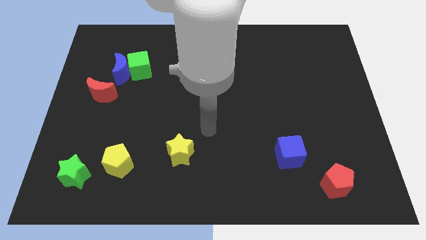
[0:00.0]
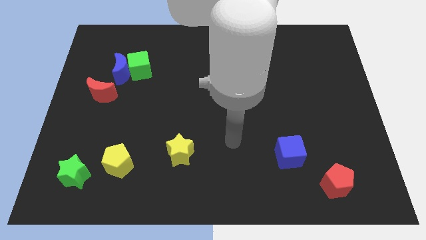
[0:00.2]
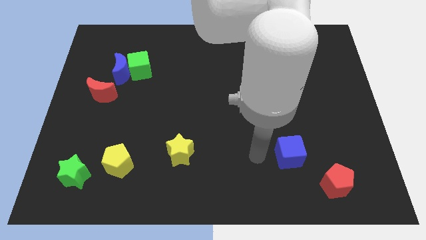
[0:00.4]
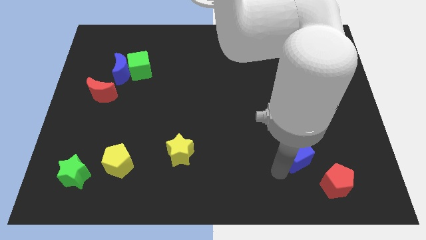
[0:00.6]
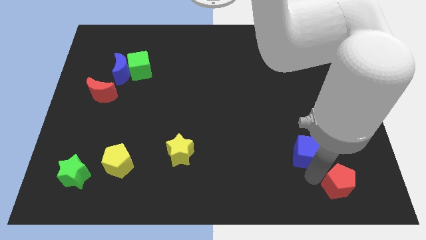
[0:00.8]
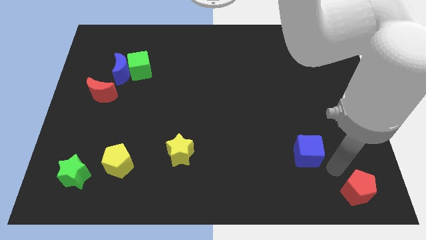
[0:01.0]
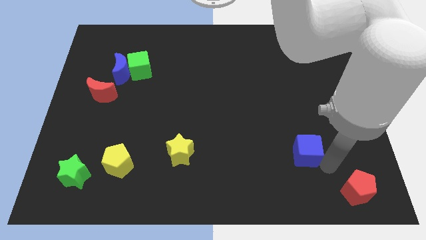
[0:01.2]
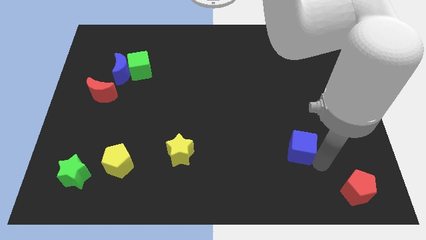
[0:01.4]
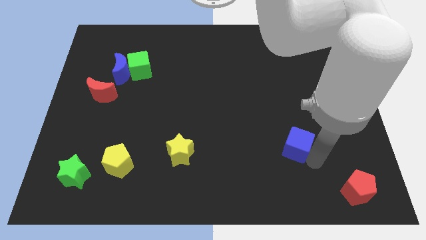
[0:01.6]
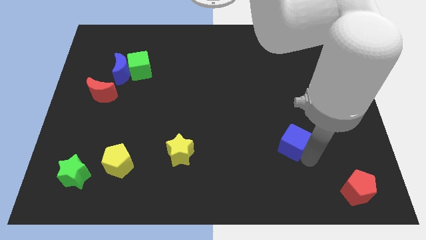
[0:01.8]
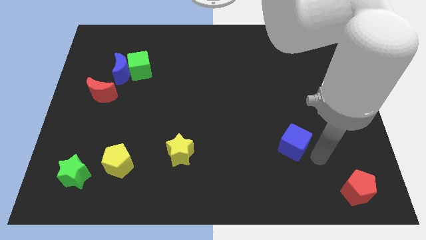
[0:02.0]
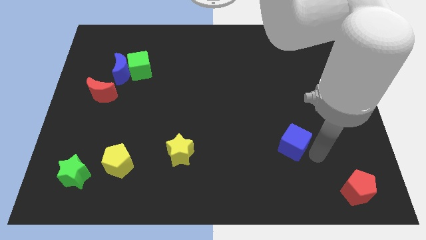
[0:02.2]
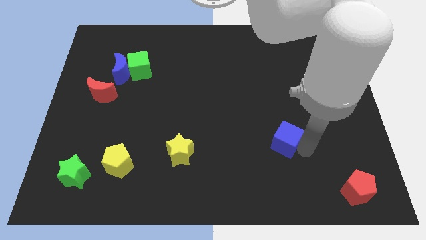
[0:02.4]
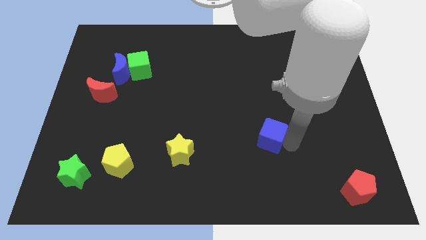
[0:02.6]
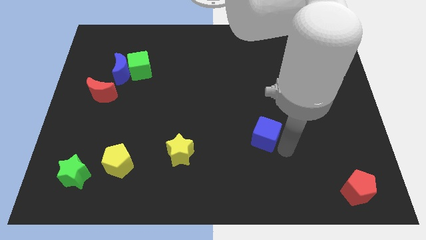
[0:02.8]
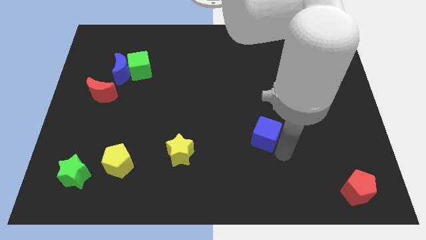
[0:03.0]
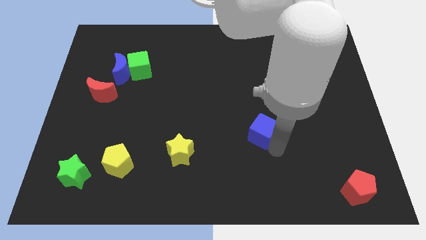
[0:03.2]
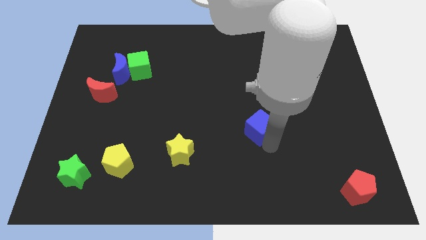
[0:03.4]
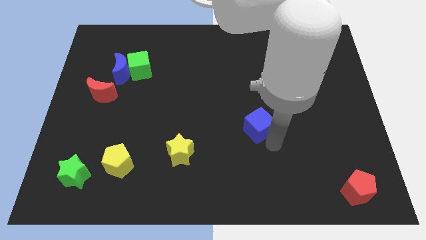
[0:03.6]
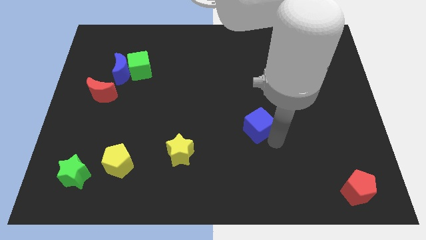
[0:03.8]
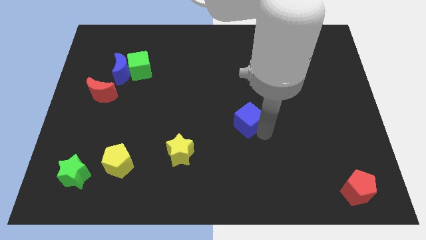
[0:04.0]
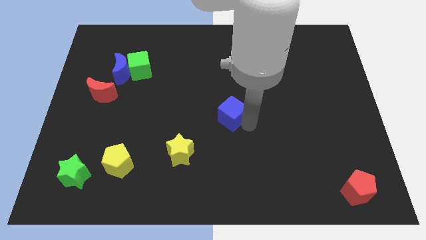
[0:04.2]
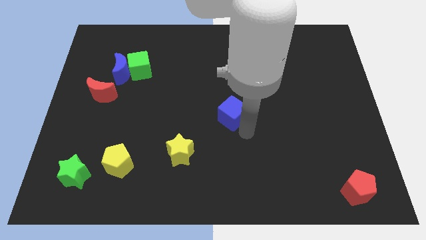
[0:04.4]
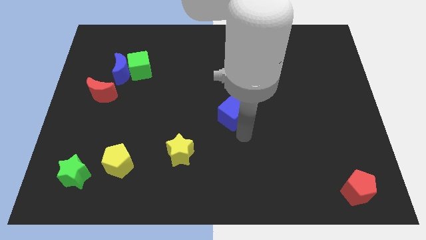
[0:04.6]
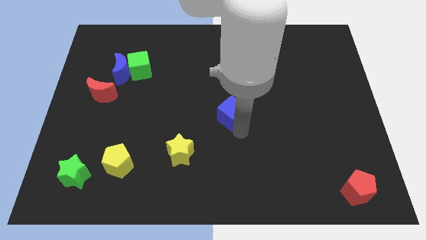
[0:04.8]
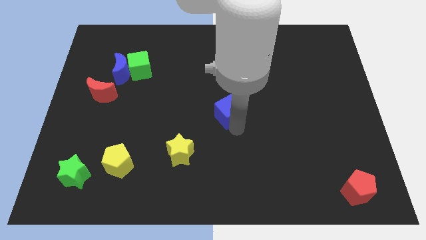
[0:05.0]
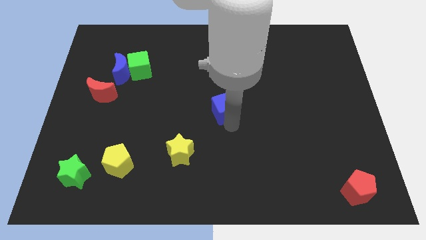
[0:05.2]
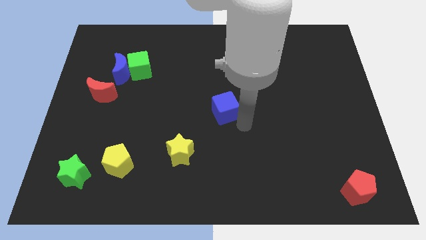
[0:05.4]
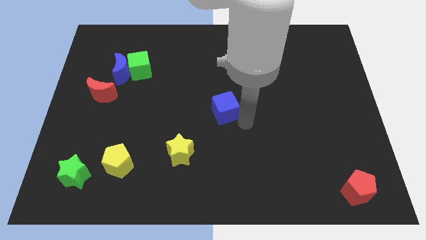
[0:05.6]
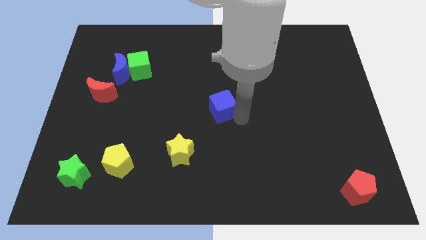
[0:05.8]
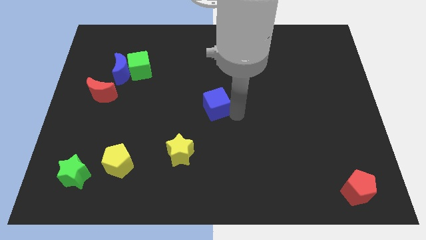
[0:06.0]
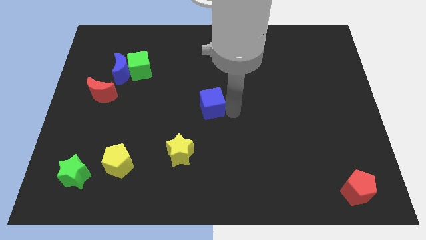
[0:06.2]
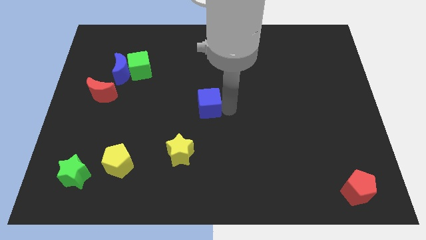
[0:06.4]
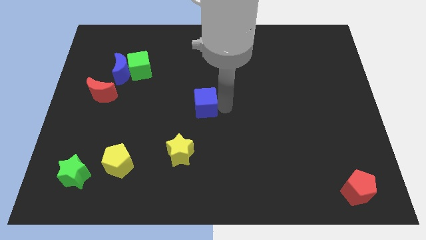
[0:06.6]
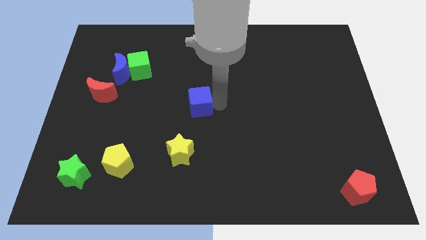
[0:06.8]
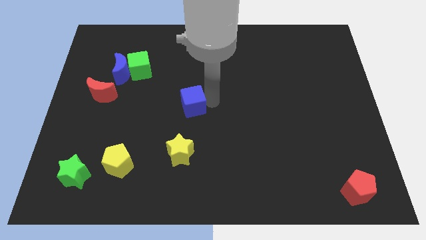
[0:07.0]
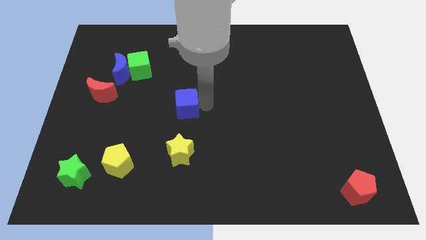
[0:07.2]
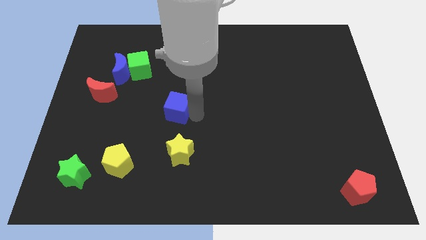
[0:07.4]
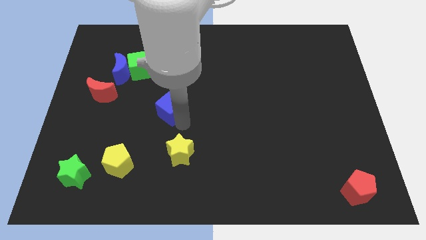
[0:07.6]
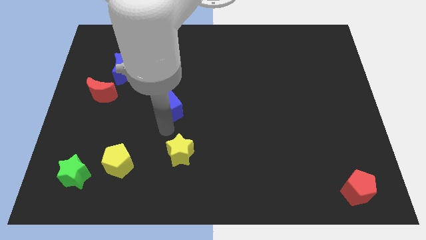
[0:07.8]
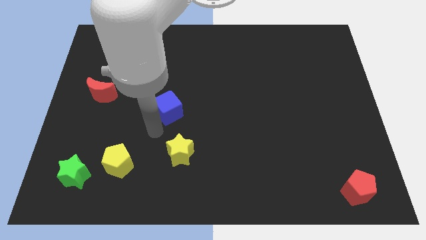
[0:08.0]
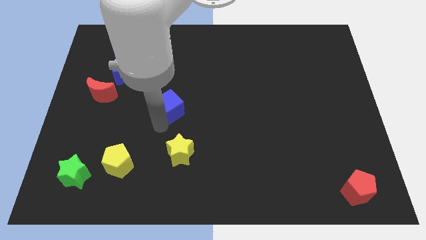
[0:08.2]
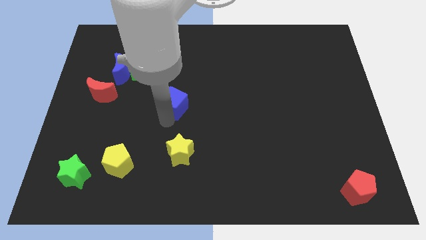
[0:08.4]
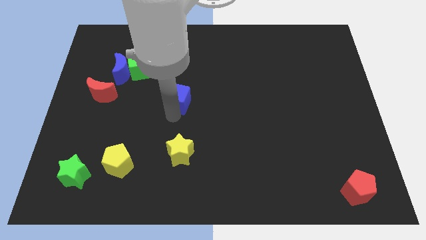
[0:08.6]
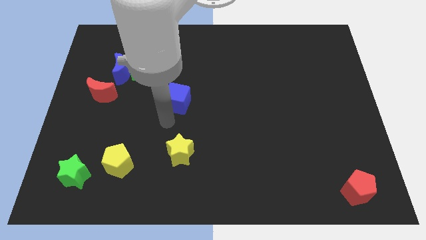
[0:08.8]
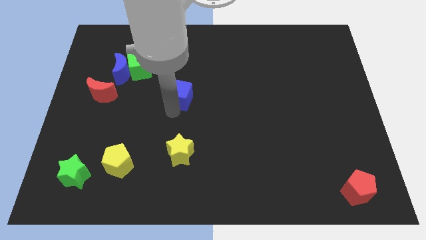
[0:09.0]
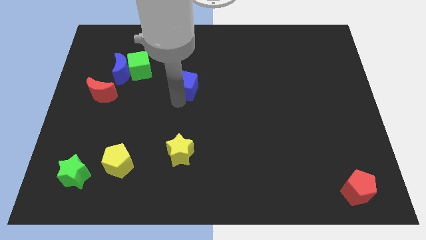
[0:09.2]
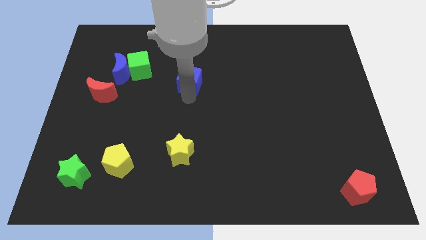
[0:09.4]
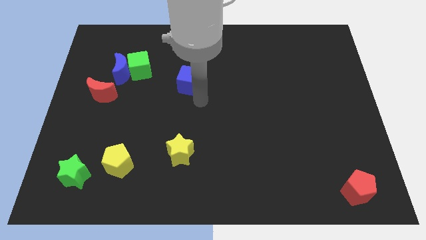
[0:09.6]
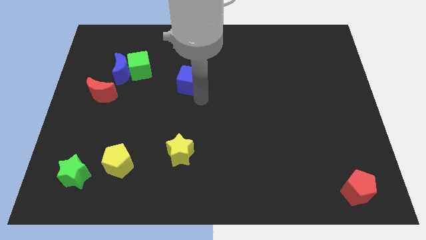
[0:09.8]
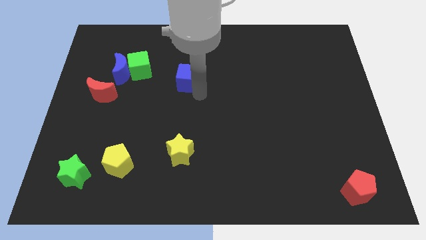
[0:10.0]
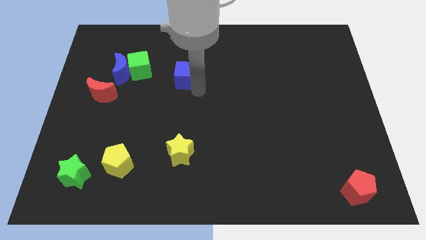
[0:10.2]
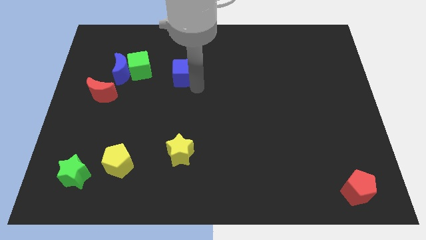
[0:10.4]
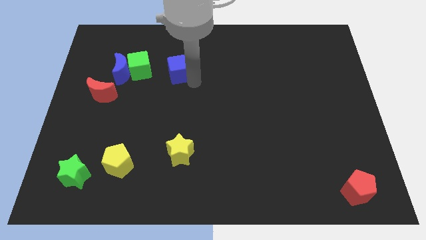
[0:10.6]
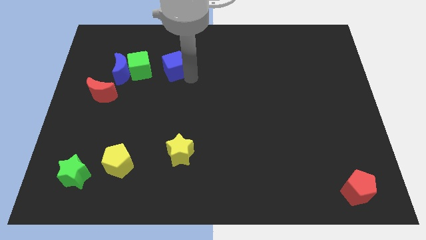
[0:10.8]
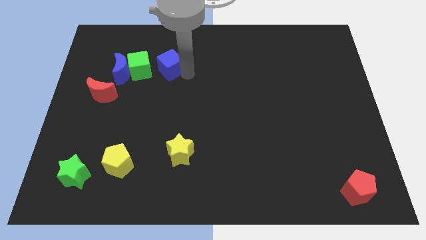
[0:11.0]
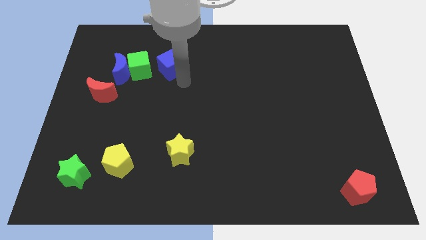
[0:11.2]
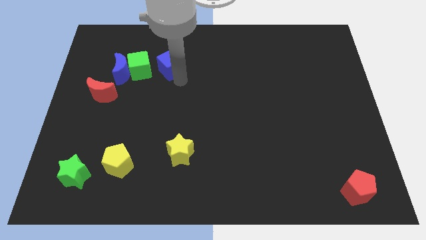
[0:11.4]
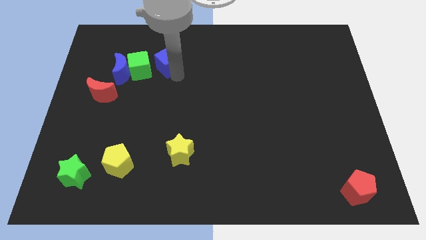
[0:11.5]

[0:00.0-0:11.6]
slide the blue cube diagonally up and to the right of the green cube

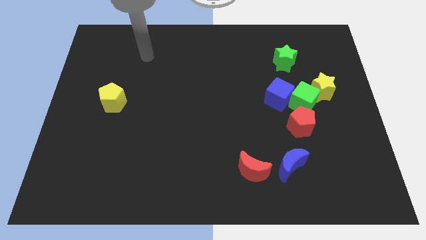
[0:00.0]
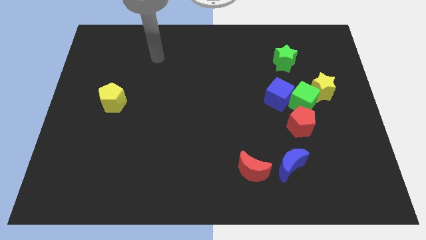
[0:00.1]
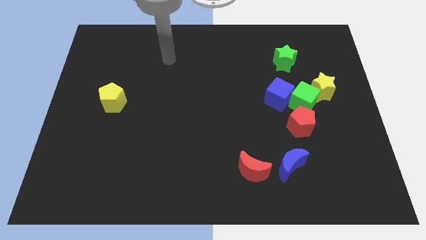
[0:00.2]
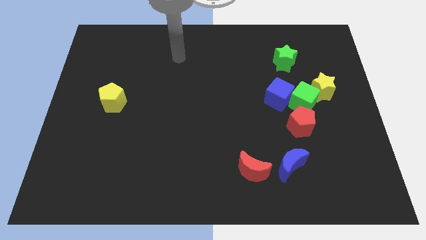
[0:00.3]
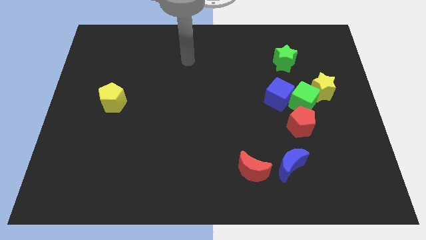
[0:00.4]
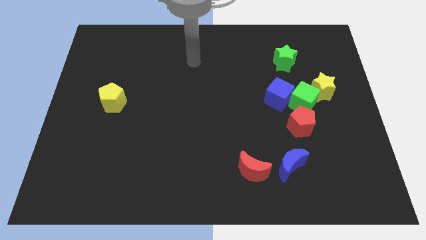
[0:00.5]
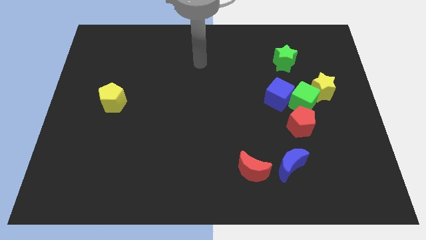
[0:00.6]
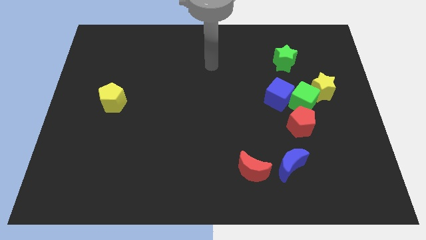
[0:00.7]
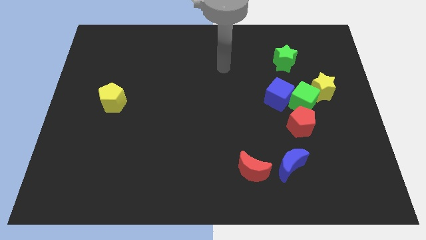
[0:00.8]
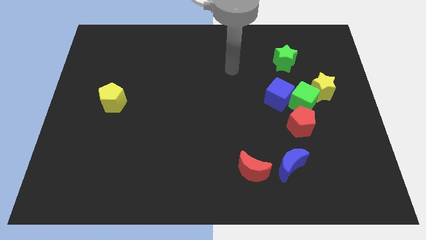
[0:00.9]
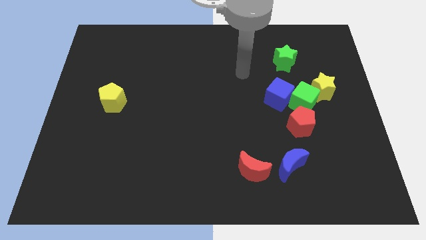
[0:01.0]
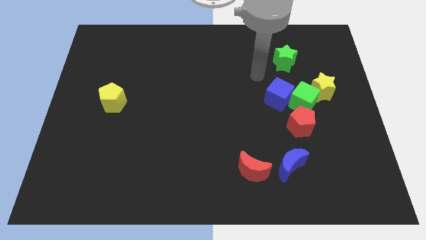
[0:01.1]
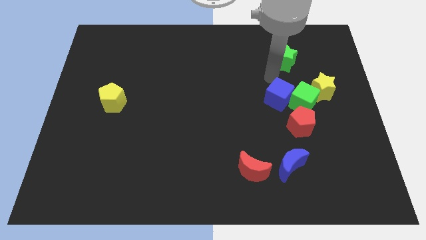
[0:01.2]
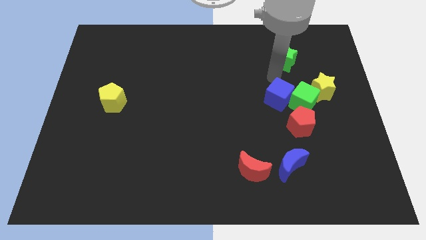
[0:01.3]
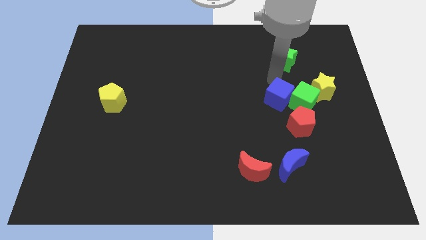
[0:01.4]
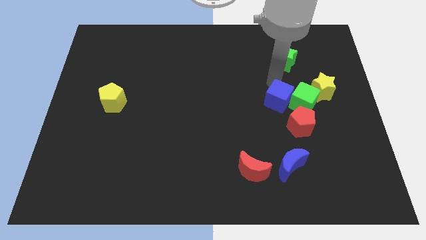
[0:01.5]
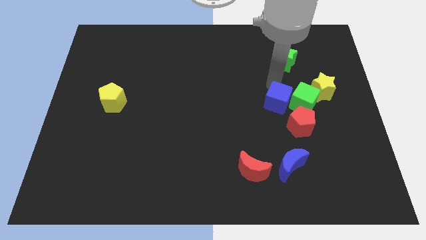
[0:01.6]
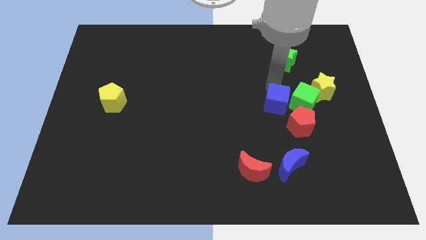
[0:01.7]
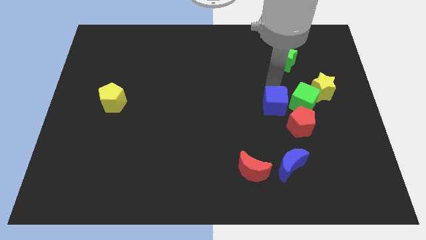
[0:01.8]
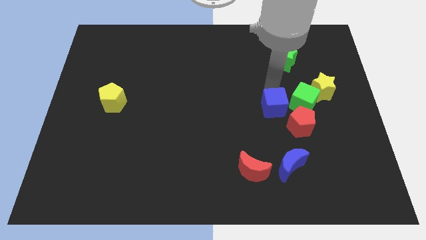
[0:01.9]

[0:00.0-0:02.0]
push the blue cube to the top side of the blue moon
